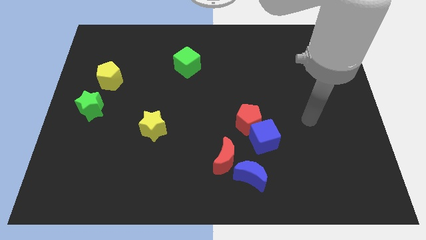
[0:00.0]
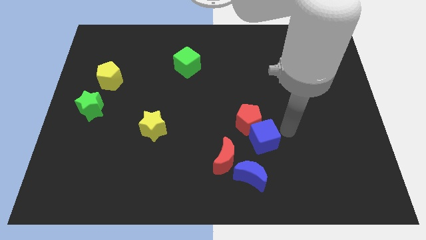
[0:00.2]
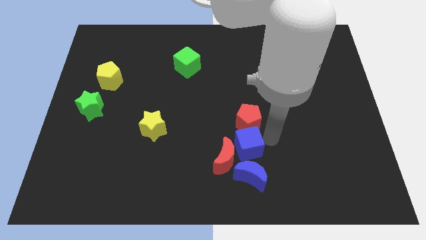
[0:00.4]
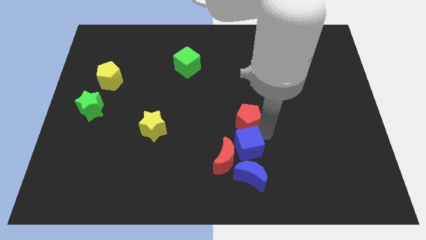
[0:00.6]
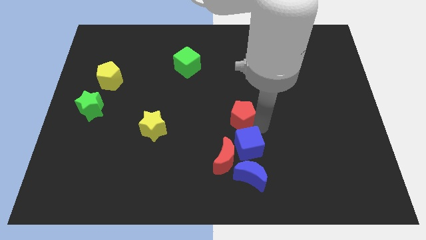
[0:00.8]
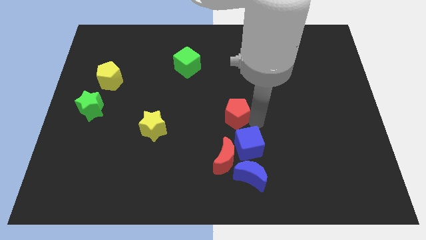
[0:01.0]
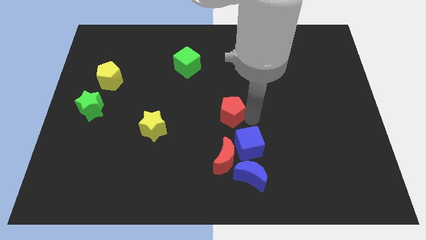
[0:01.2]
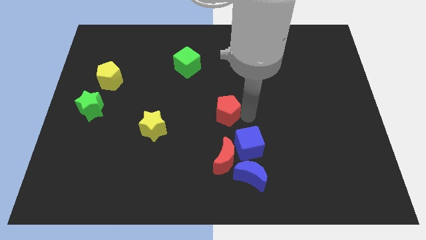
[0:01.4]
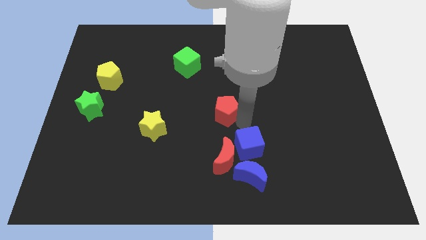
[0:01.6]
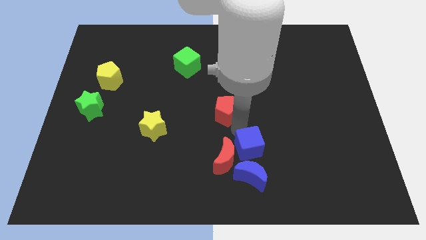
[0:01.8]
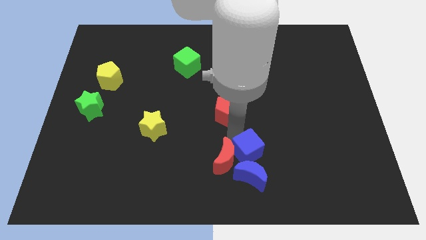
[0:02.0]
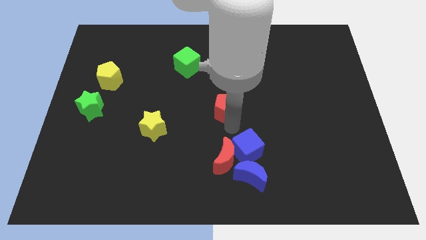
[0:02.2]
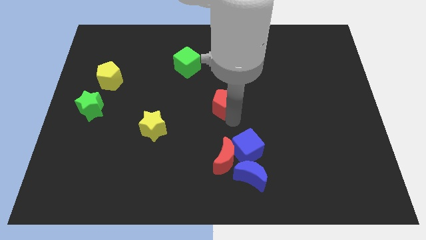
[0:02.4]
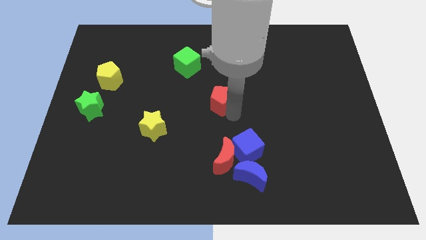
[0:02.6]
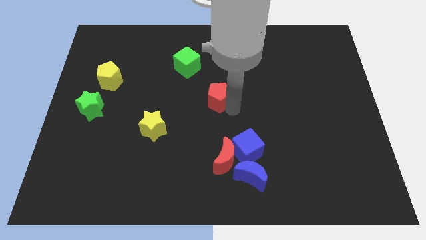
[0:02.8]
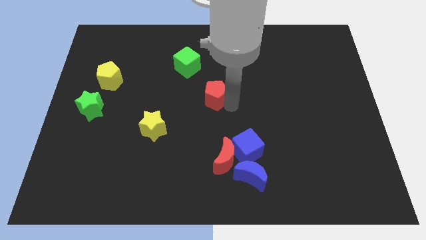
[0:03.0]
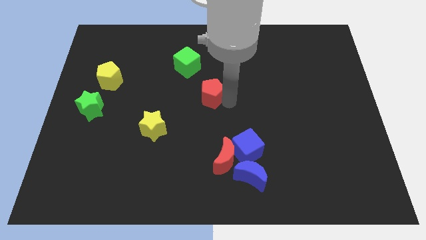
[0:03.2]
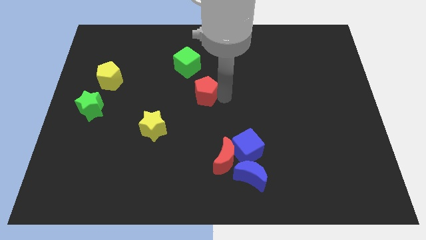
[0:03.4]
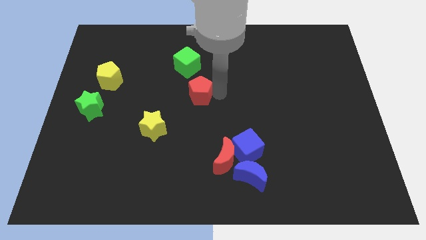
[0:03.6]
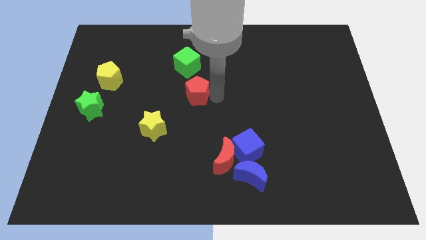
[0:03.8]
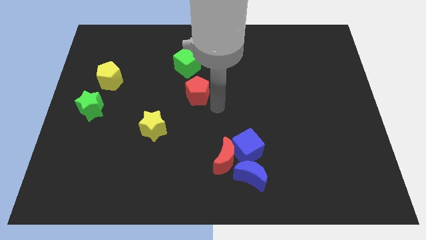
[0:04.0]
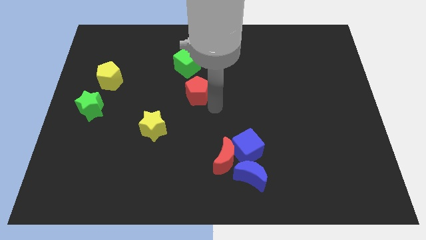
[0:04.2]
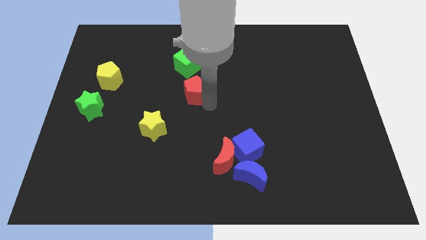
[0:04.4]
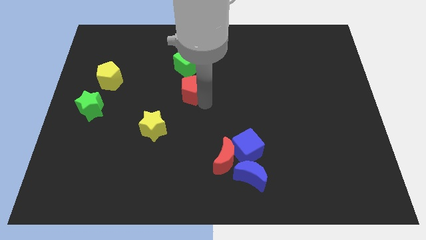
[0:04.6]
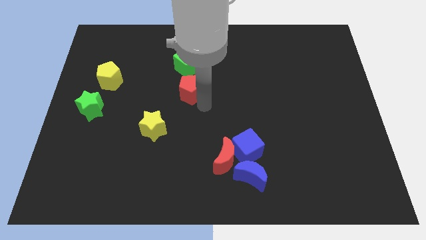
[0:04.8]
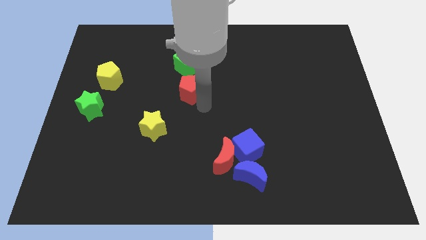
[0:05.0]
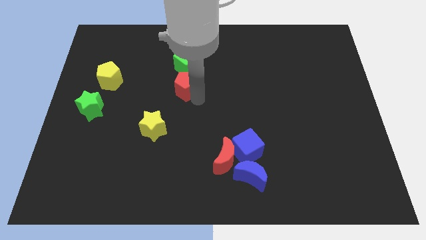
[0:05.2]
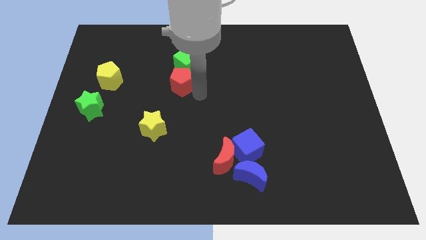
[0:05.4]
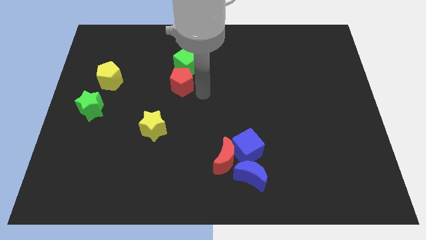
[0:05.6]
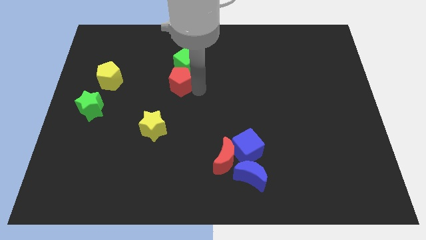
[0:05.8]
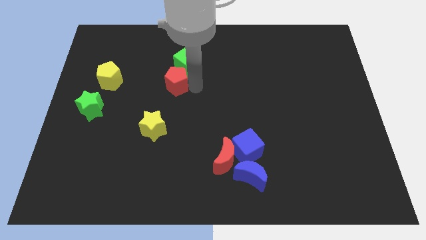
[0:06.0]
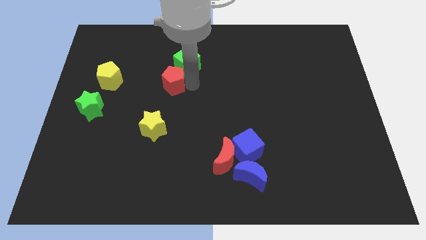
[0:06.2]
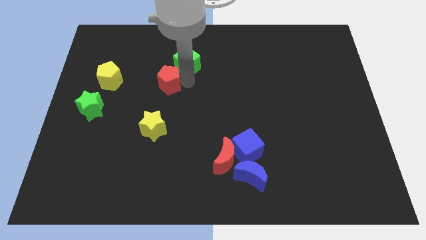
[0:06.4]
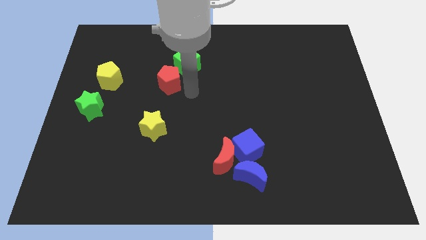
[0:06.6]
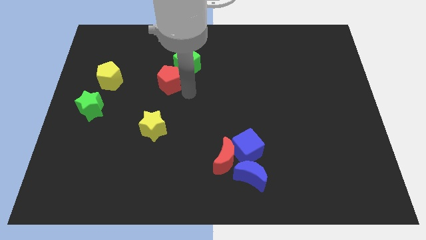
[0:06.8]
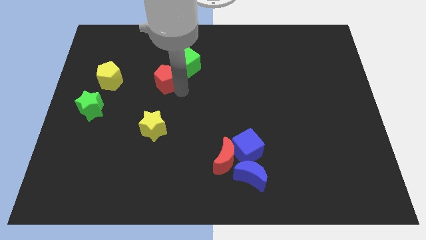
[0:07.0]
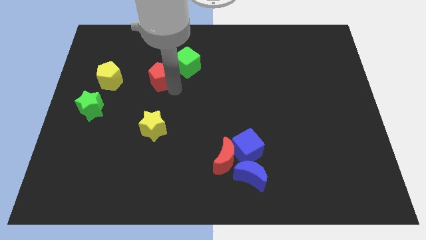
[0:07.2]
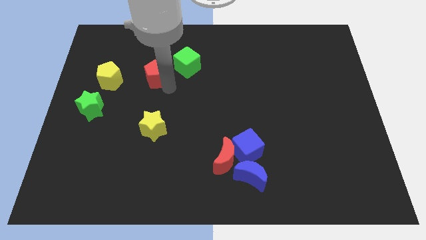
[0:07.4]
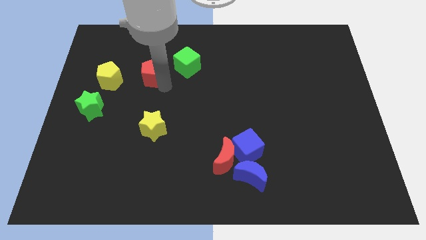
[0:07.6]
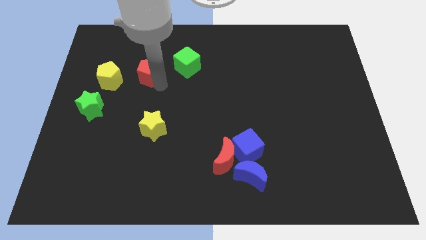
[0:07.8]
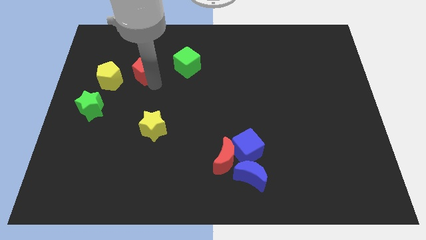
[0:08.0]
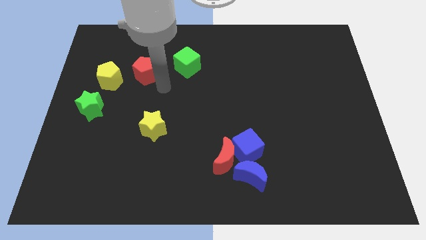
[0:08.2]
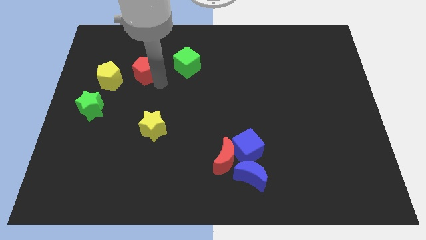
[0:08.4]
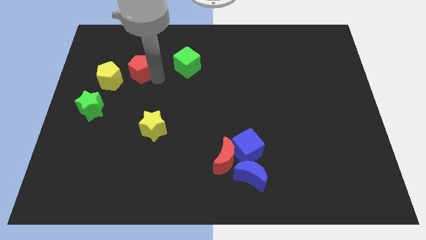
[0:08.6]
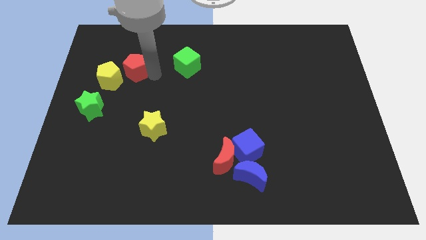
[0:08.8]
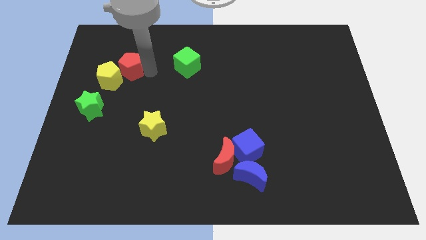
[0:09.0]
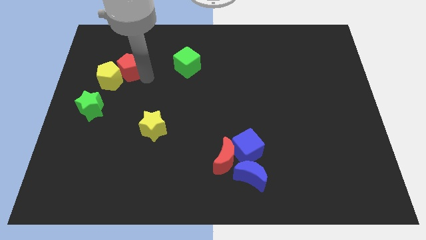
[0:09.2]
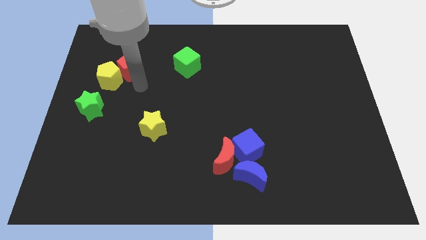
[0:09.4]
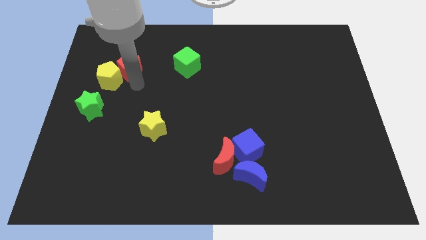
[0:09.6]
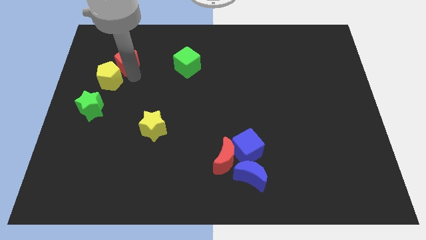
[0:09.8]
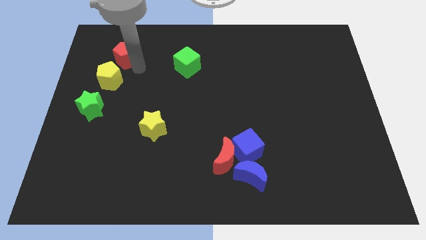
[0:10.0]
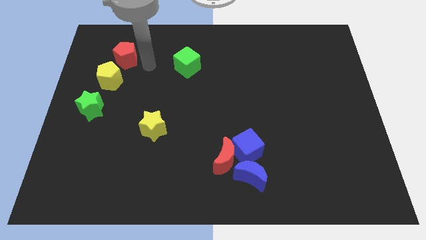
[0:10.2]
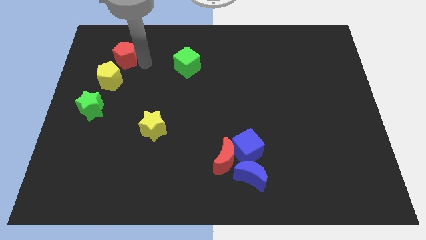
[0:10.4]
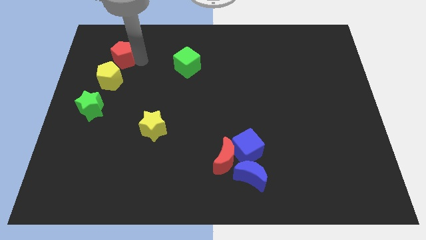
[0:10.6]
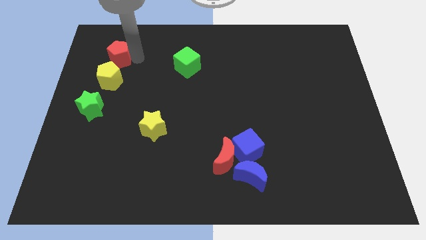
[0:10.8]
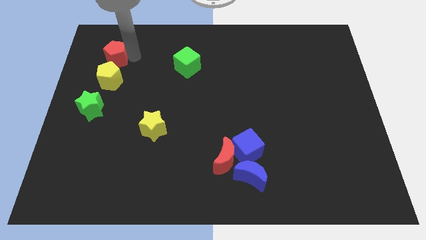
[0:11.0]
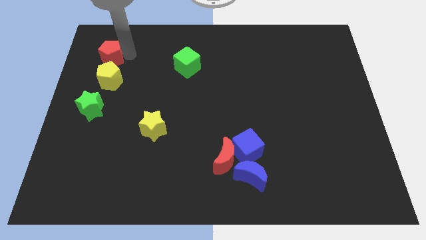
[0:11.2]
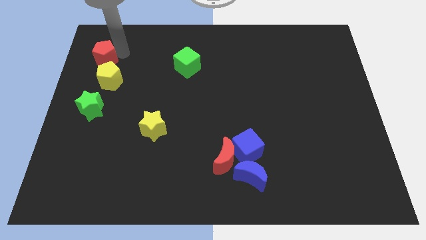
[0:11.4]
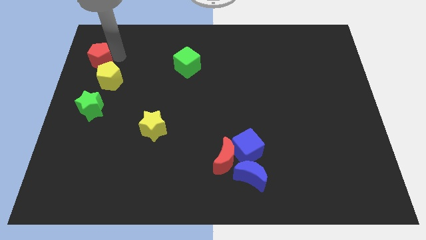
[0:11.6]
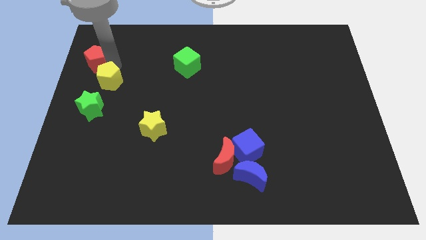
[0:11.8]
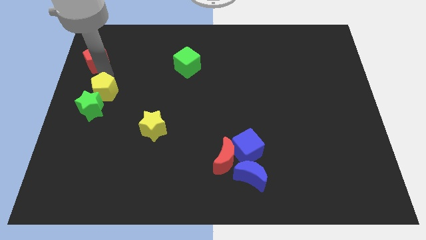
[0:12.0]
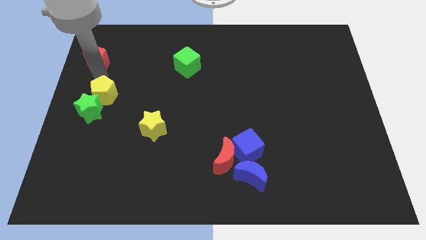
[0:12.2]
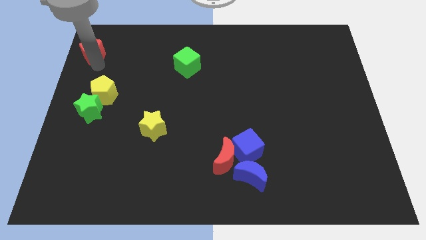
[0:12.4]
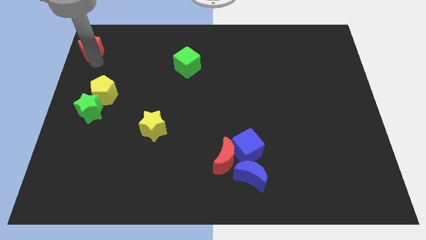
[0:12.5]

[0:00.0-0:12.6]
move the red pentagon to the upper left corner

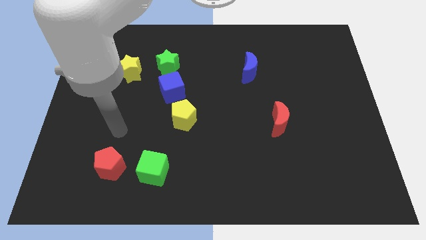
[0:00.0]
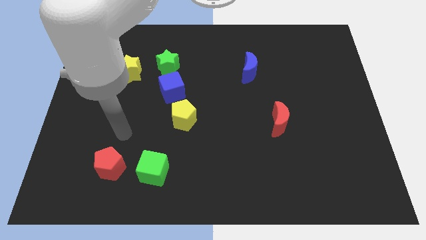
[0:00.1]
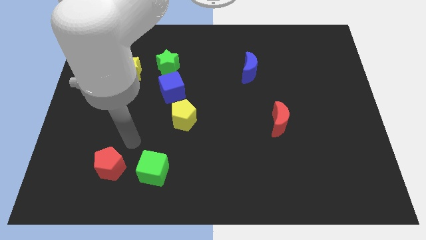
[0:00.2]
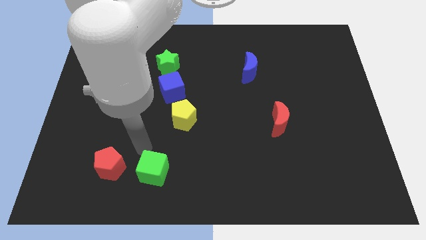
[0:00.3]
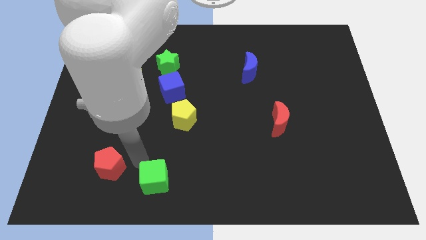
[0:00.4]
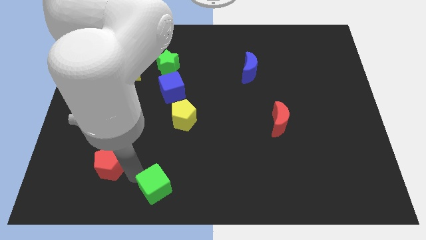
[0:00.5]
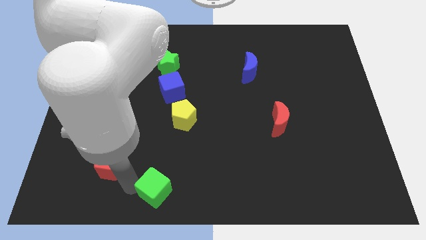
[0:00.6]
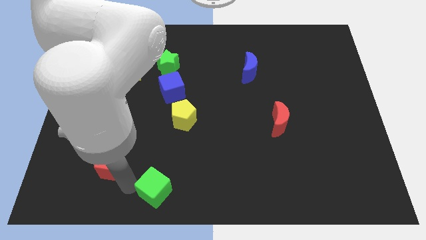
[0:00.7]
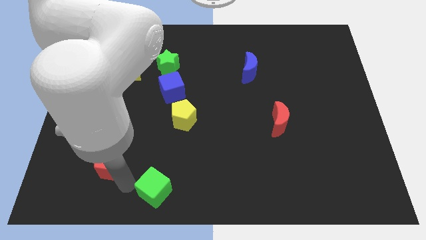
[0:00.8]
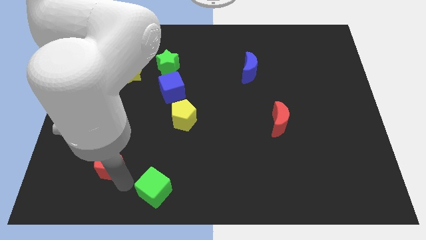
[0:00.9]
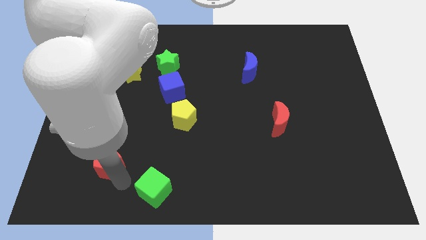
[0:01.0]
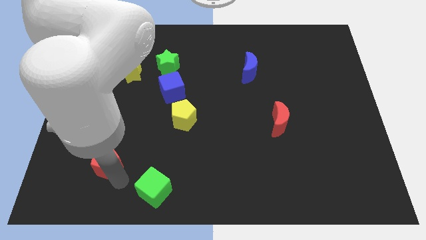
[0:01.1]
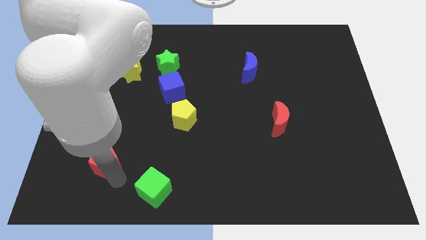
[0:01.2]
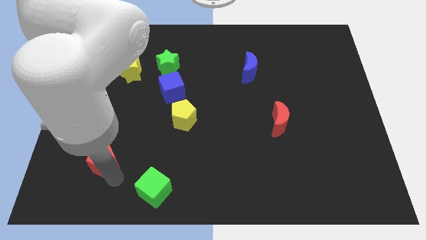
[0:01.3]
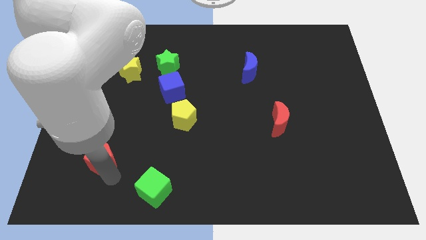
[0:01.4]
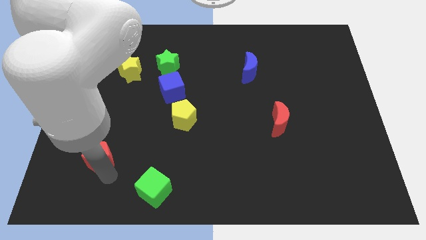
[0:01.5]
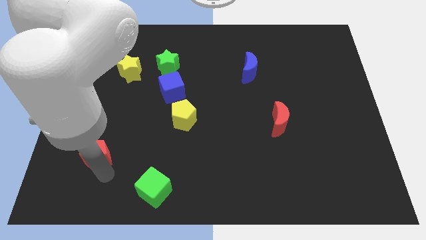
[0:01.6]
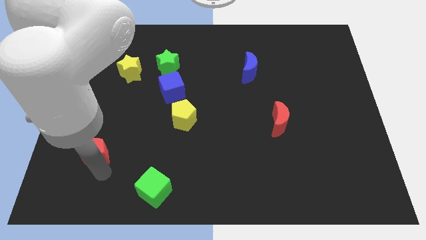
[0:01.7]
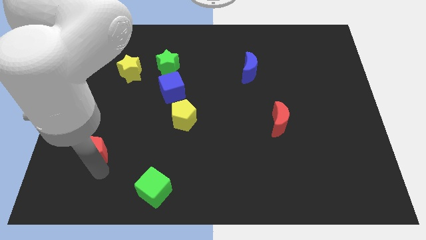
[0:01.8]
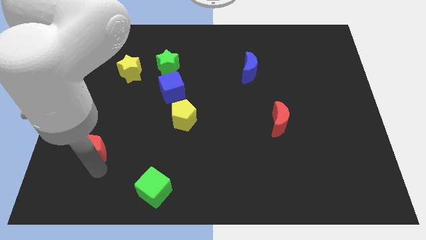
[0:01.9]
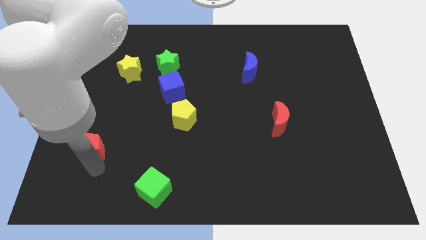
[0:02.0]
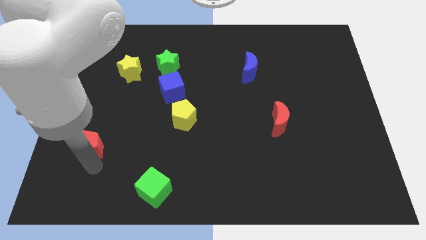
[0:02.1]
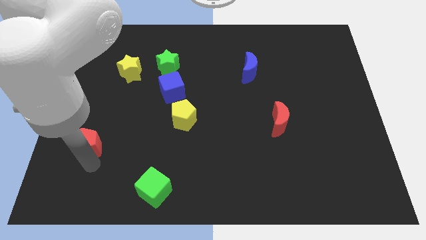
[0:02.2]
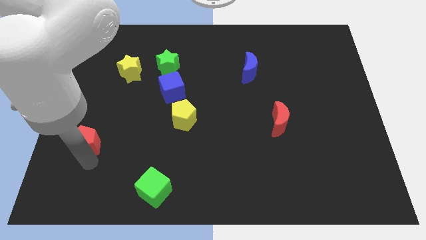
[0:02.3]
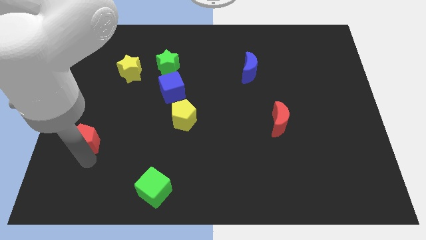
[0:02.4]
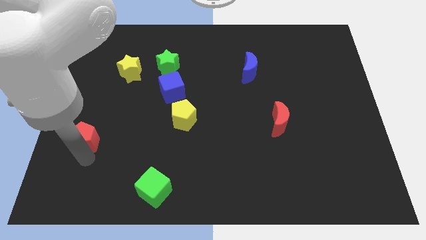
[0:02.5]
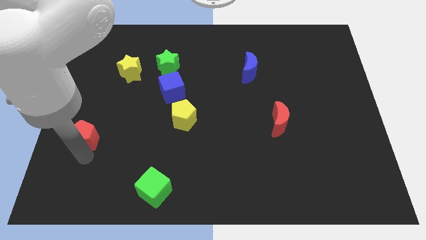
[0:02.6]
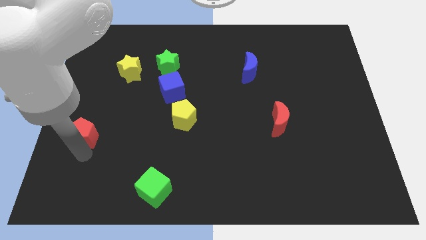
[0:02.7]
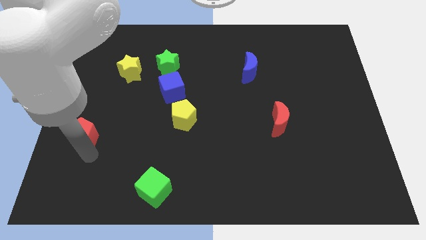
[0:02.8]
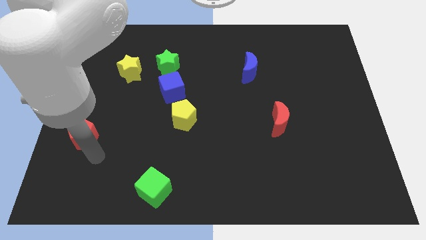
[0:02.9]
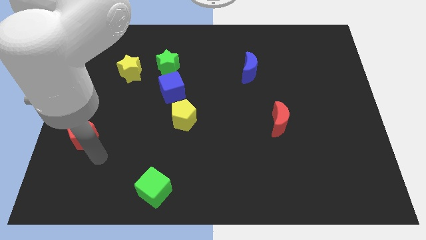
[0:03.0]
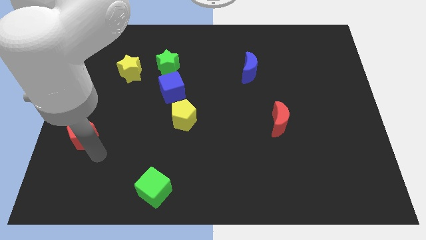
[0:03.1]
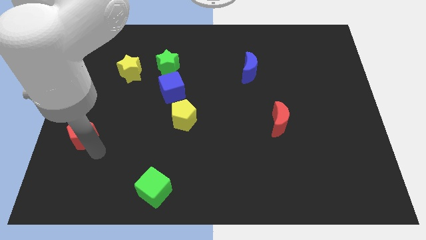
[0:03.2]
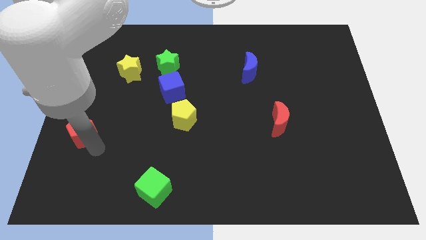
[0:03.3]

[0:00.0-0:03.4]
push the red pentagon to the left side
